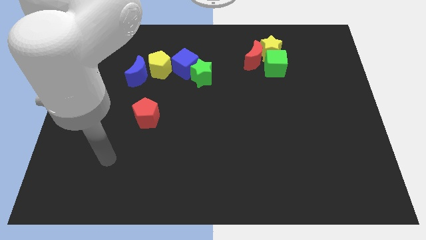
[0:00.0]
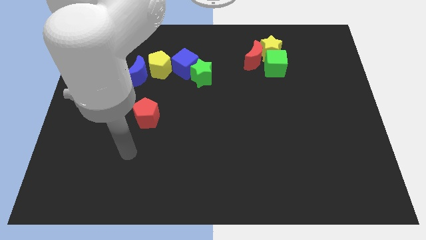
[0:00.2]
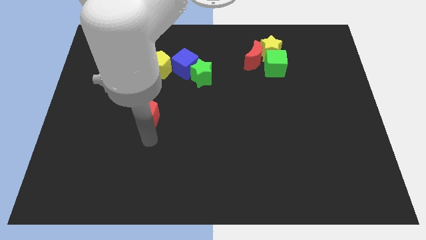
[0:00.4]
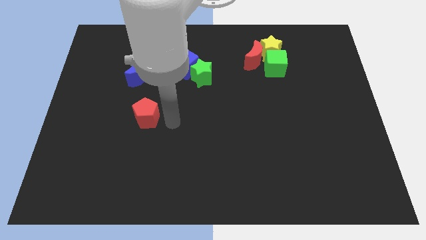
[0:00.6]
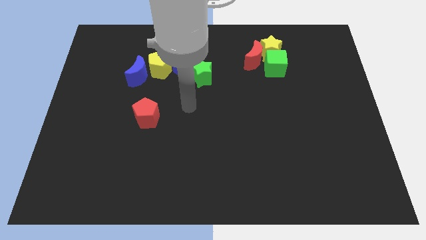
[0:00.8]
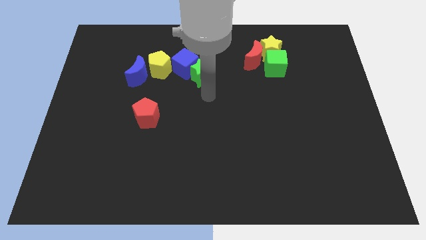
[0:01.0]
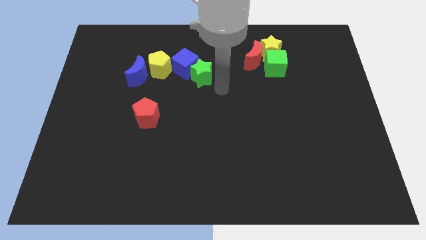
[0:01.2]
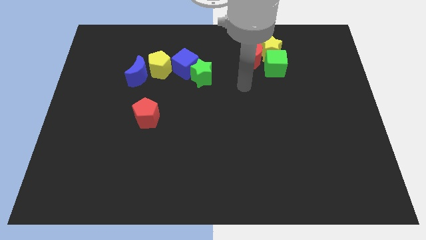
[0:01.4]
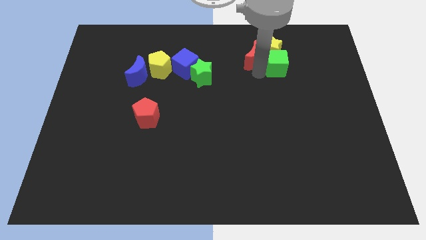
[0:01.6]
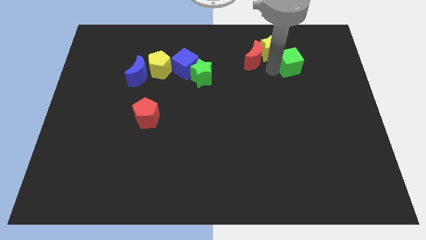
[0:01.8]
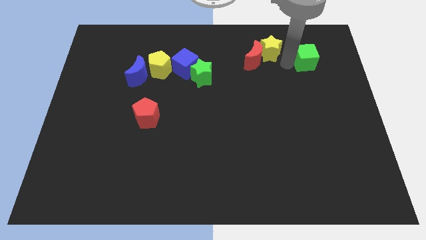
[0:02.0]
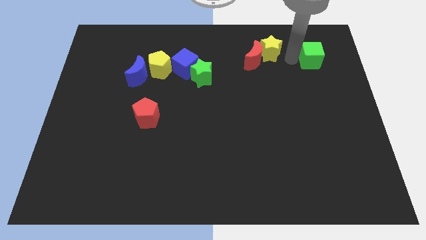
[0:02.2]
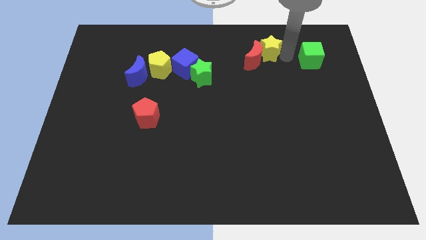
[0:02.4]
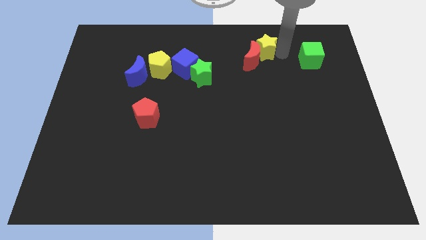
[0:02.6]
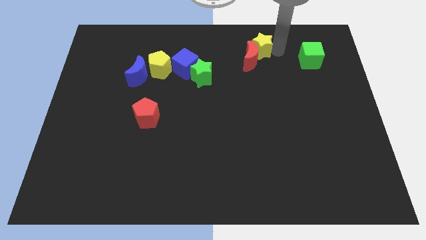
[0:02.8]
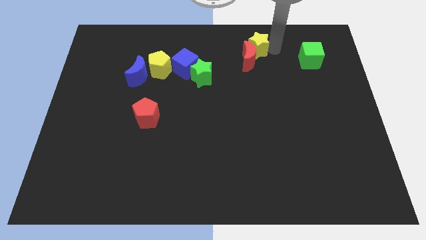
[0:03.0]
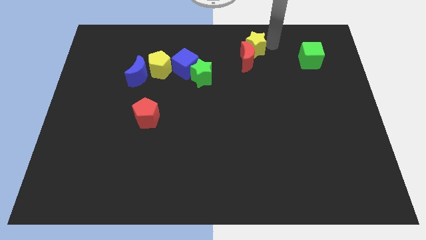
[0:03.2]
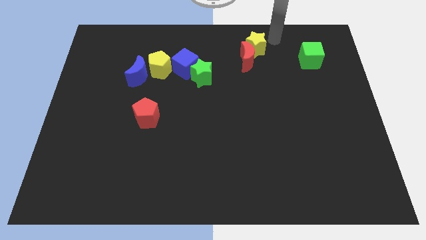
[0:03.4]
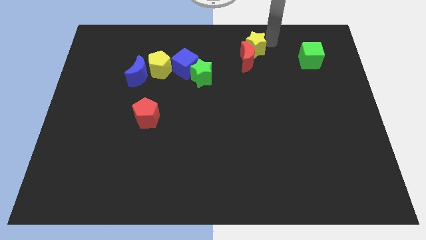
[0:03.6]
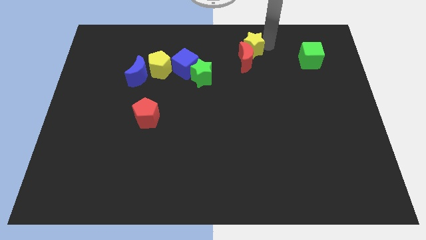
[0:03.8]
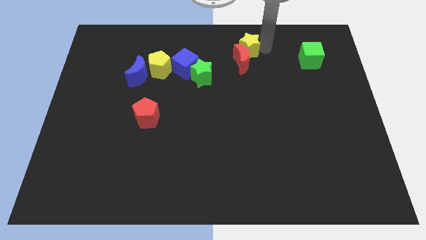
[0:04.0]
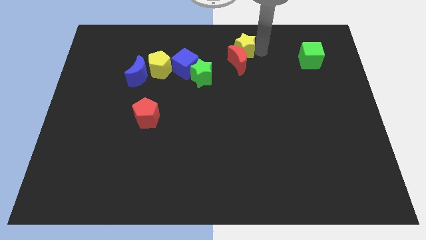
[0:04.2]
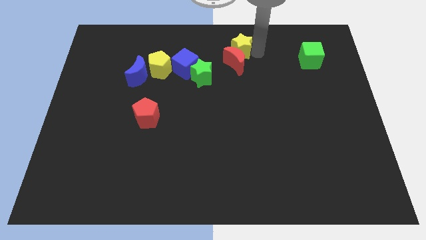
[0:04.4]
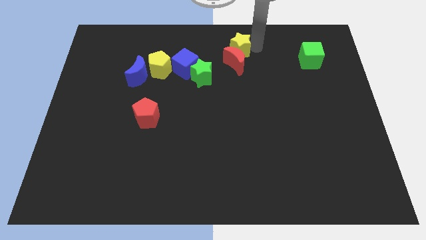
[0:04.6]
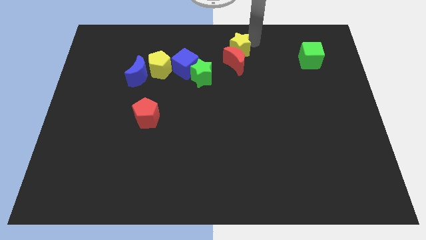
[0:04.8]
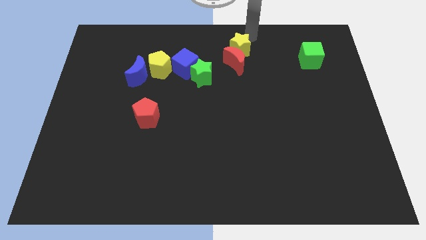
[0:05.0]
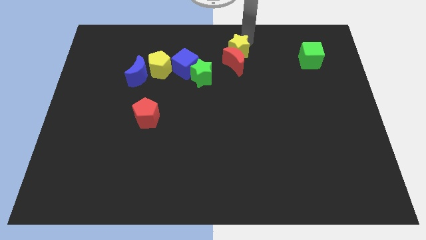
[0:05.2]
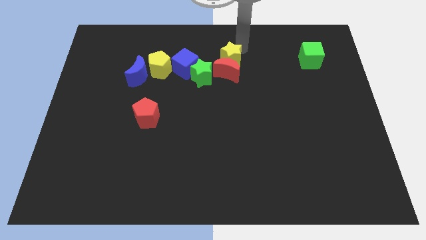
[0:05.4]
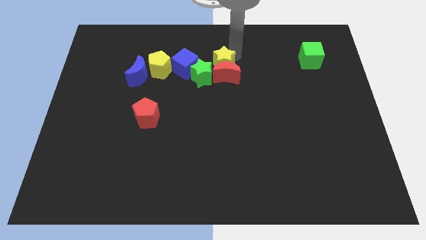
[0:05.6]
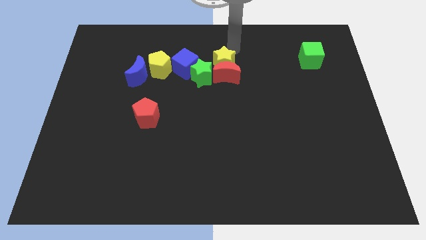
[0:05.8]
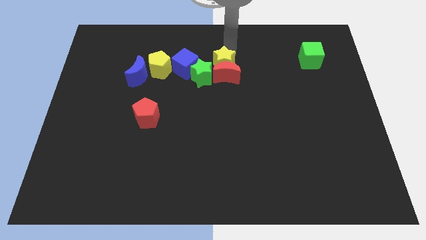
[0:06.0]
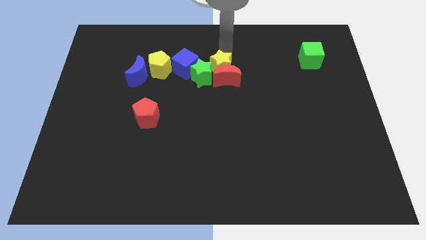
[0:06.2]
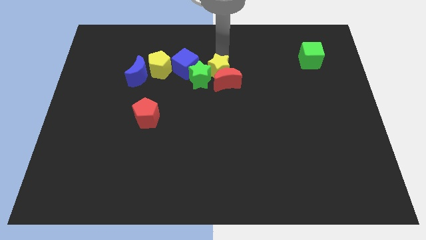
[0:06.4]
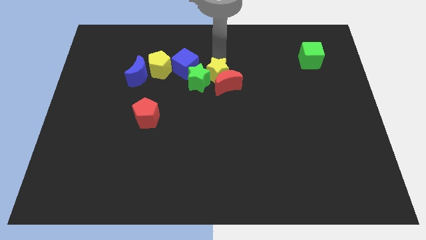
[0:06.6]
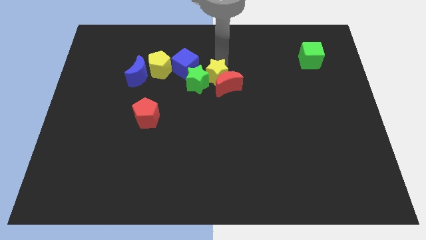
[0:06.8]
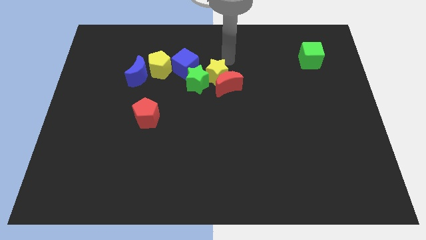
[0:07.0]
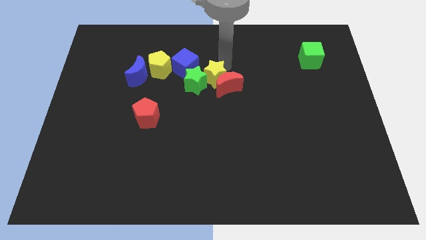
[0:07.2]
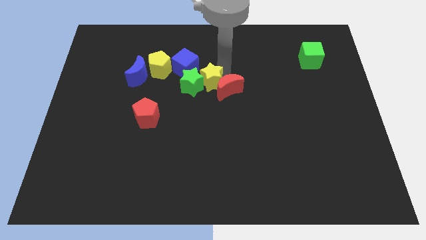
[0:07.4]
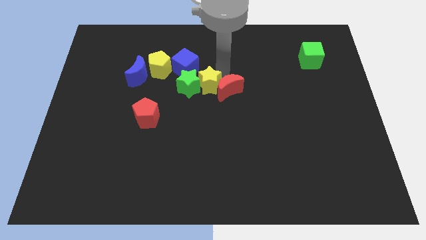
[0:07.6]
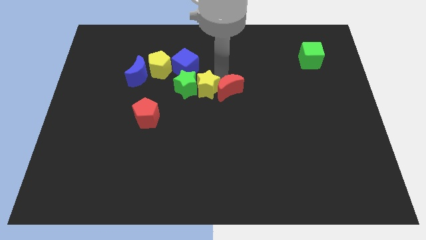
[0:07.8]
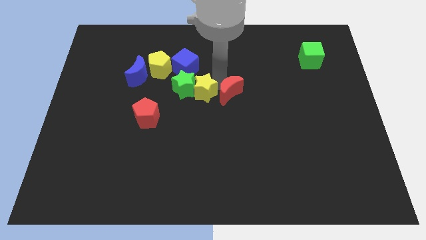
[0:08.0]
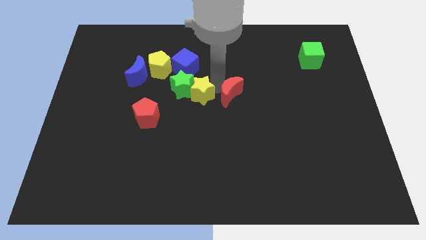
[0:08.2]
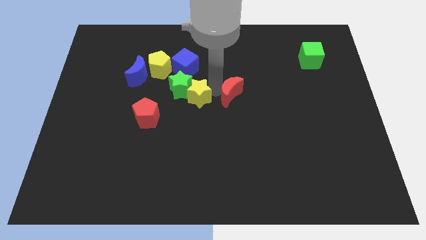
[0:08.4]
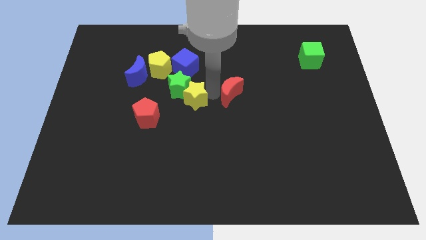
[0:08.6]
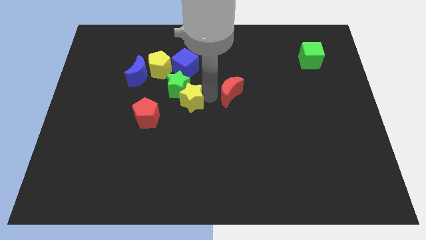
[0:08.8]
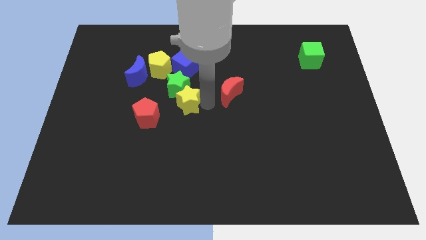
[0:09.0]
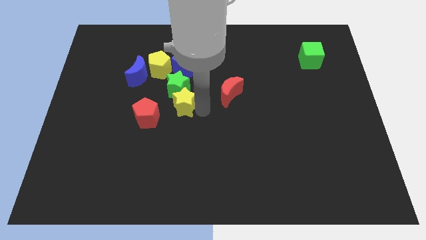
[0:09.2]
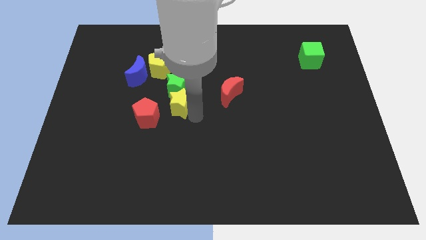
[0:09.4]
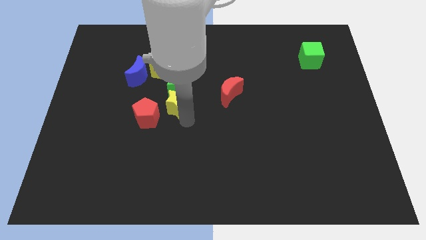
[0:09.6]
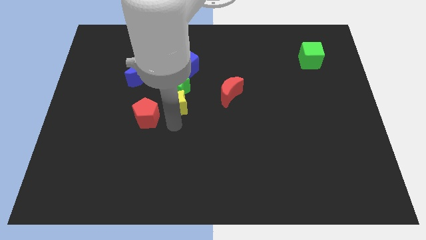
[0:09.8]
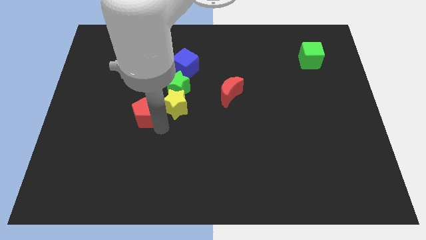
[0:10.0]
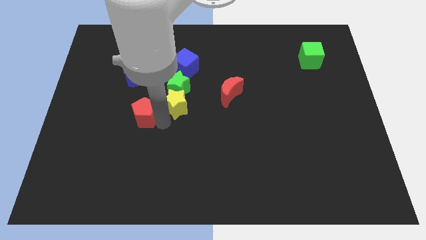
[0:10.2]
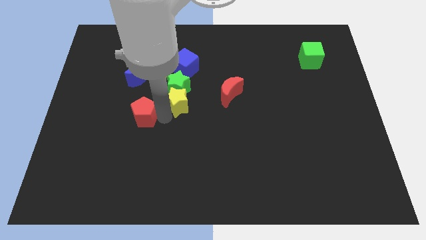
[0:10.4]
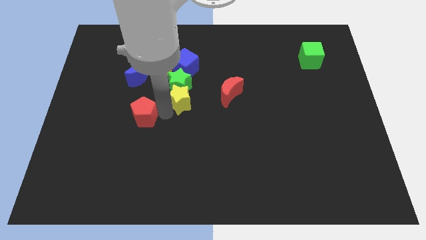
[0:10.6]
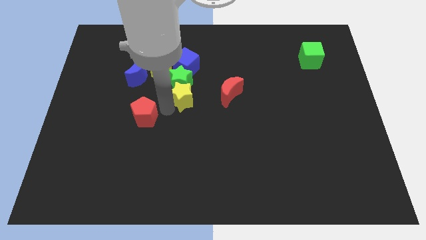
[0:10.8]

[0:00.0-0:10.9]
move the yellow star to the bottom right side of the yellow pentagon

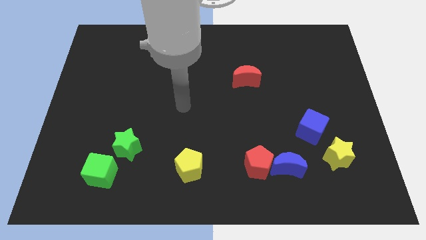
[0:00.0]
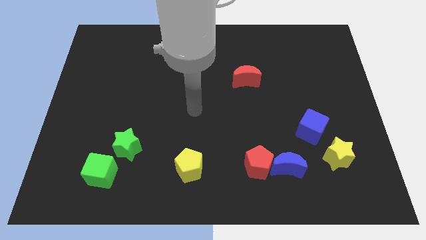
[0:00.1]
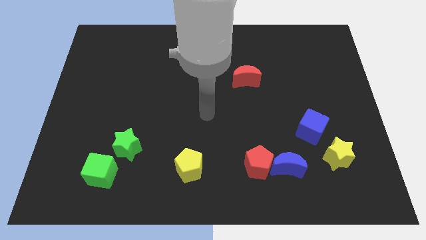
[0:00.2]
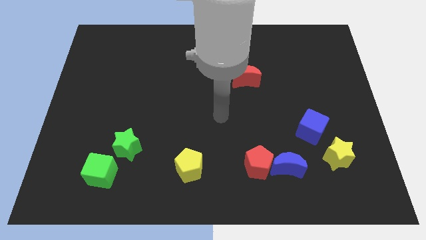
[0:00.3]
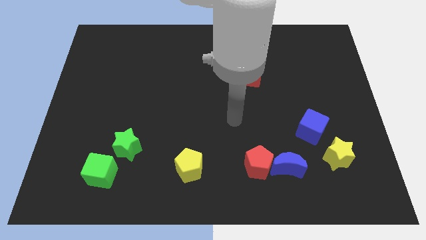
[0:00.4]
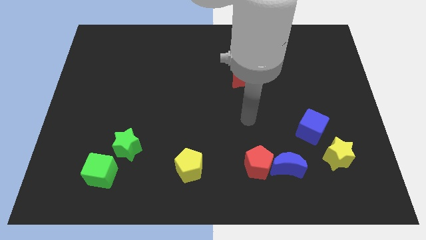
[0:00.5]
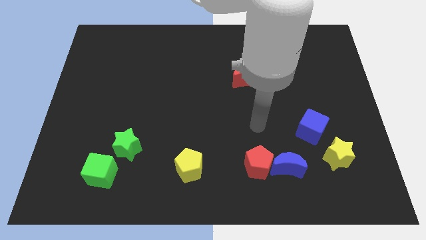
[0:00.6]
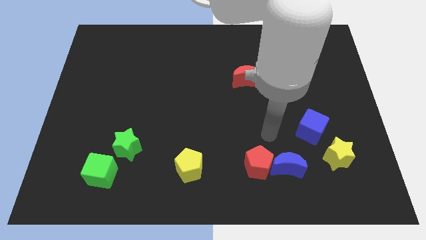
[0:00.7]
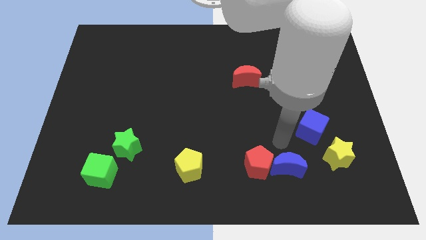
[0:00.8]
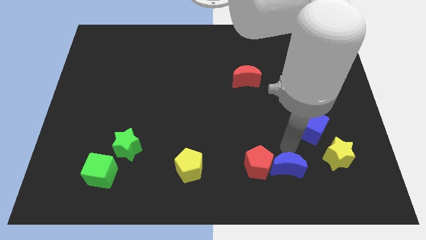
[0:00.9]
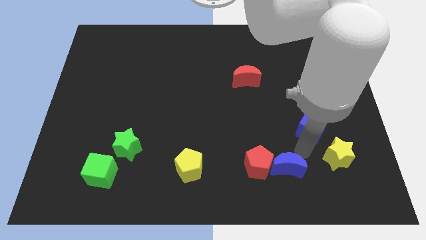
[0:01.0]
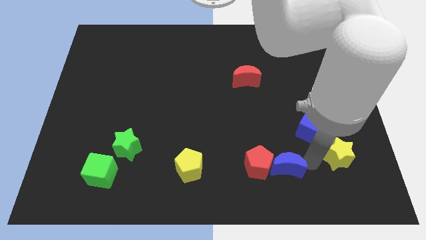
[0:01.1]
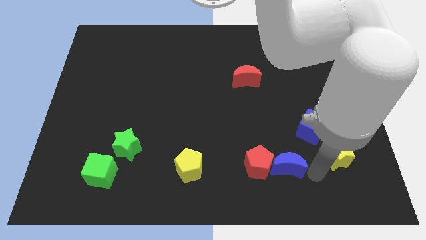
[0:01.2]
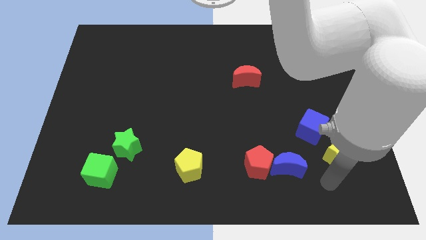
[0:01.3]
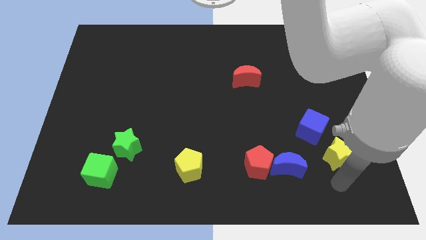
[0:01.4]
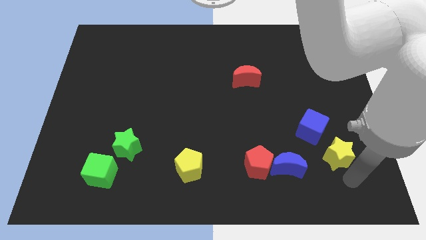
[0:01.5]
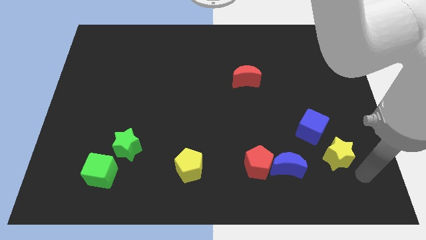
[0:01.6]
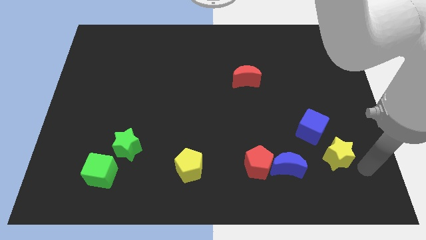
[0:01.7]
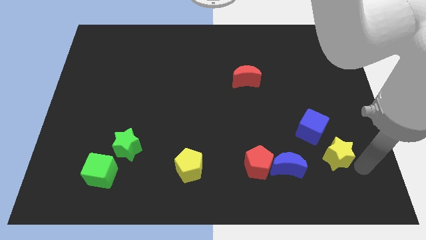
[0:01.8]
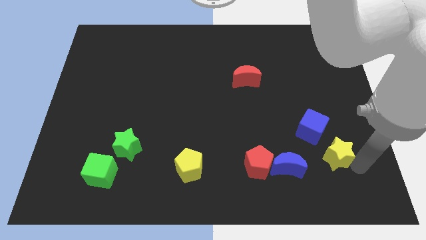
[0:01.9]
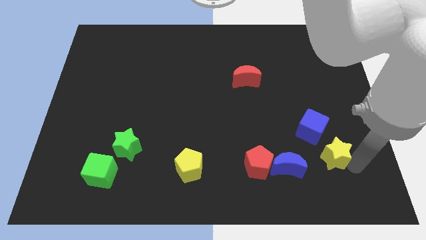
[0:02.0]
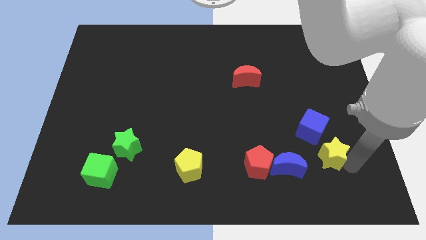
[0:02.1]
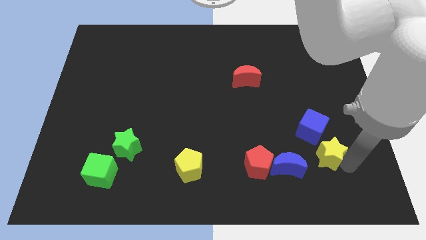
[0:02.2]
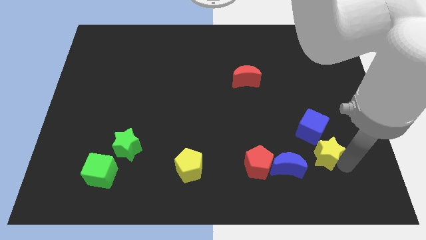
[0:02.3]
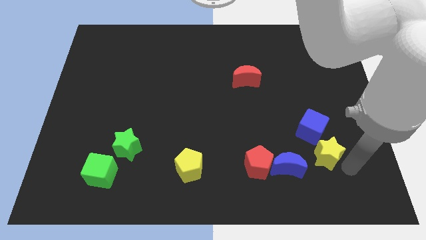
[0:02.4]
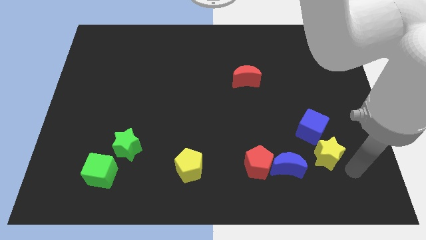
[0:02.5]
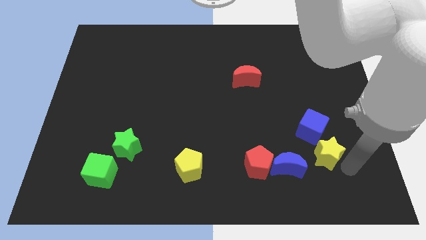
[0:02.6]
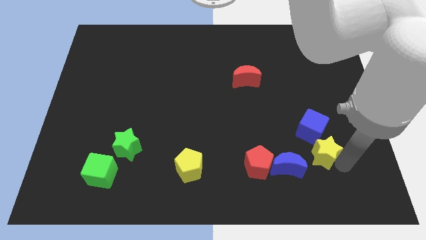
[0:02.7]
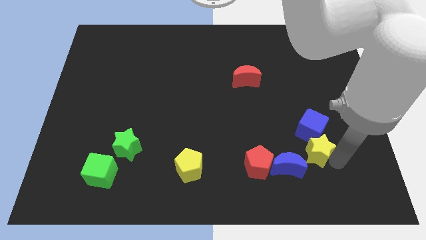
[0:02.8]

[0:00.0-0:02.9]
move the yellow star to the bottom left side of the blue cube
